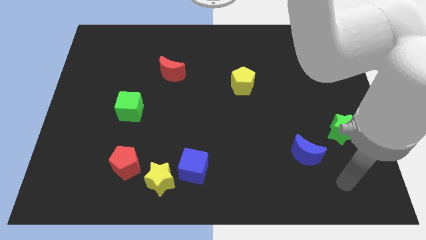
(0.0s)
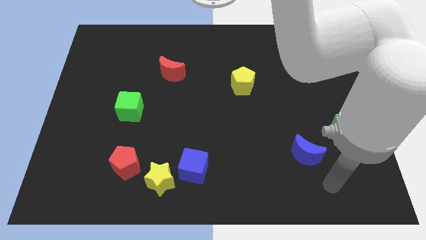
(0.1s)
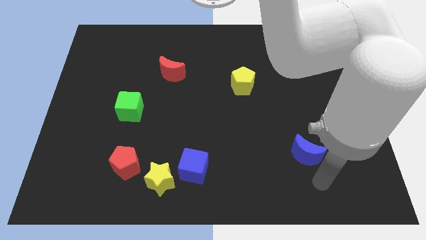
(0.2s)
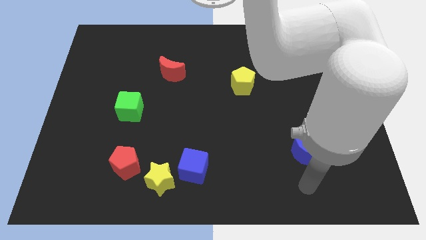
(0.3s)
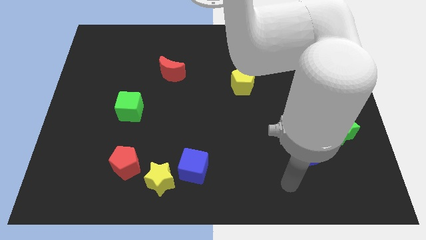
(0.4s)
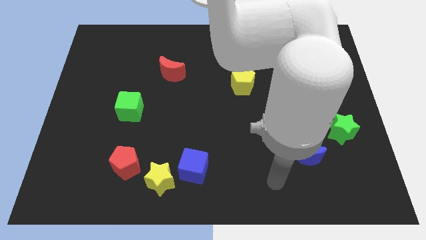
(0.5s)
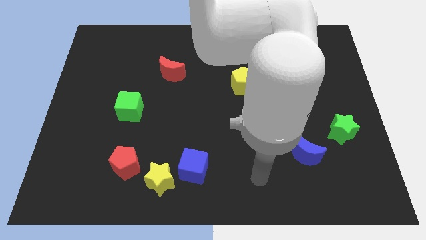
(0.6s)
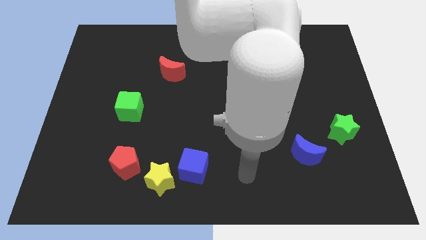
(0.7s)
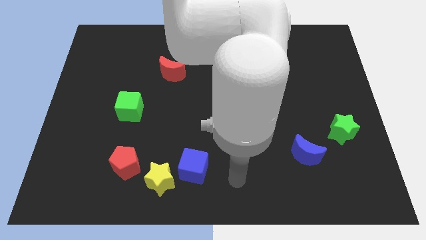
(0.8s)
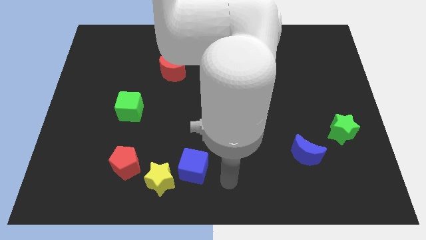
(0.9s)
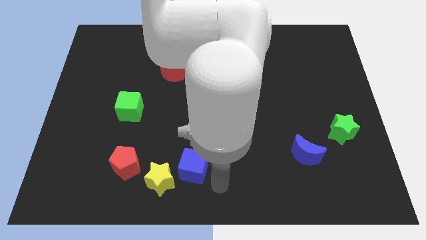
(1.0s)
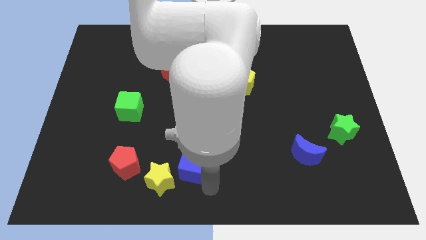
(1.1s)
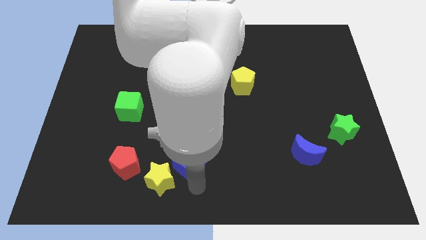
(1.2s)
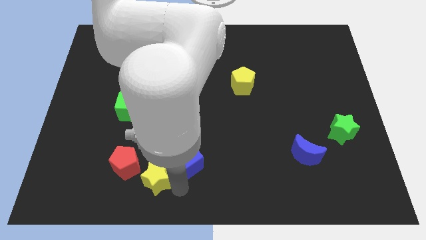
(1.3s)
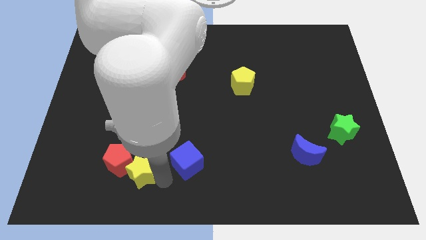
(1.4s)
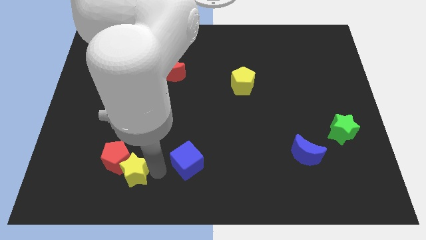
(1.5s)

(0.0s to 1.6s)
separate the blue cube from the yellow star

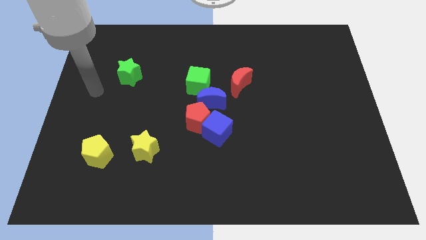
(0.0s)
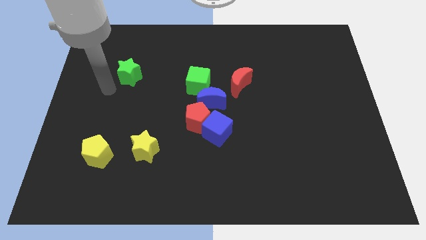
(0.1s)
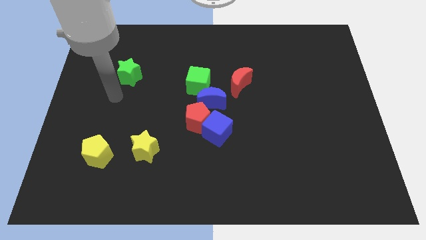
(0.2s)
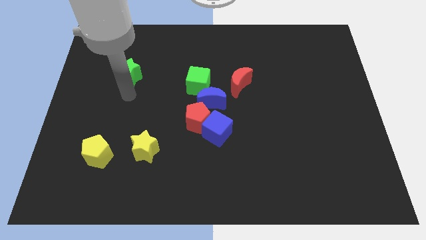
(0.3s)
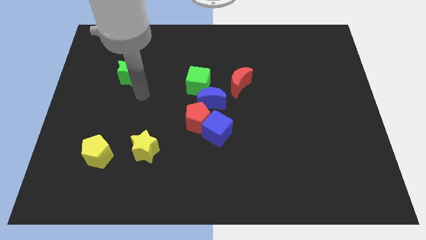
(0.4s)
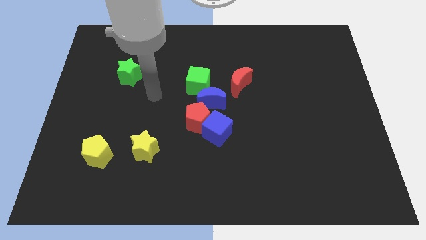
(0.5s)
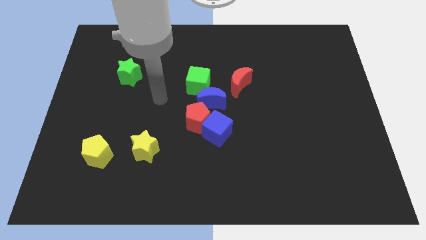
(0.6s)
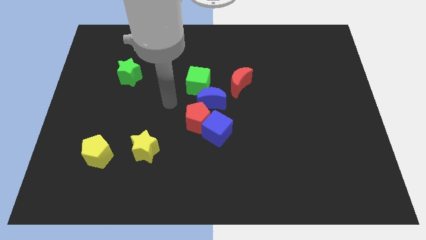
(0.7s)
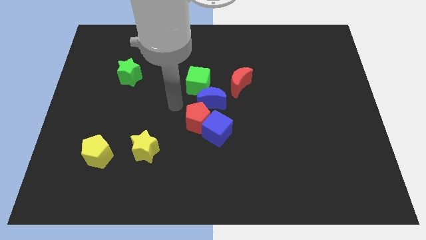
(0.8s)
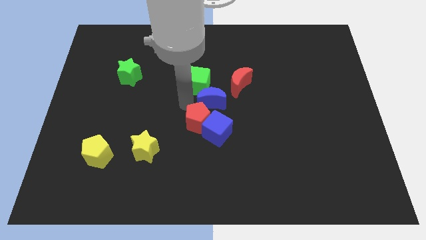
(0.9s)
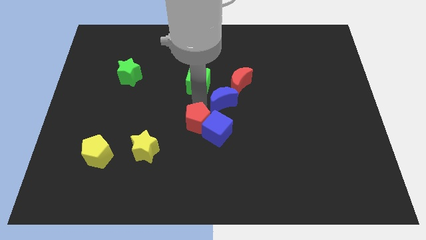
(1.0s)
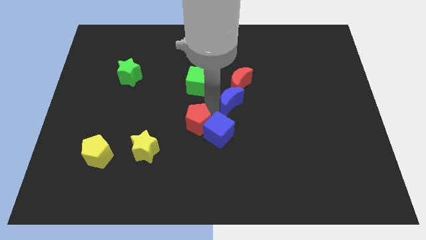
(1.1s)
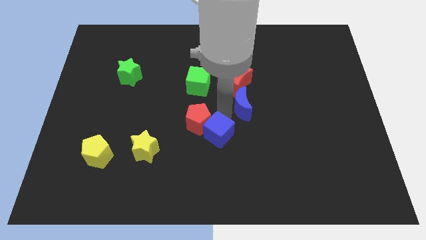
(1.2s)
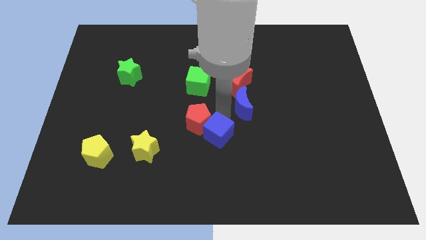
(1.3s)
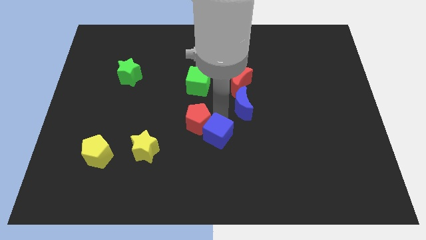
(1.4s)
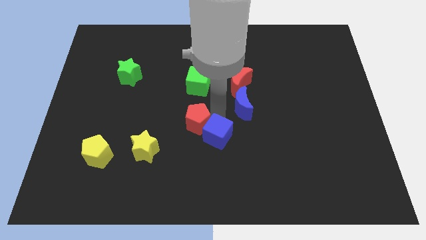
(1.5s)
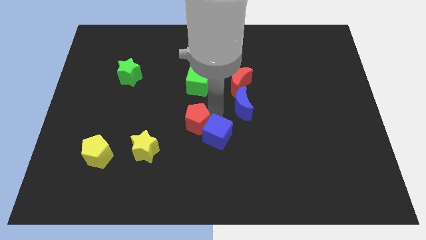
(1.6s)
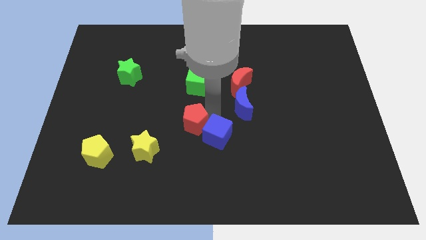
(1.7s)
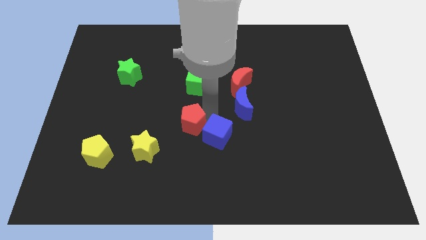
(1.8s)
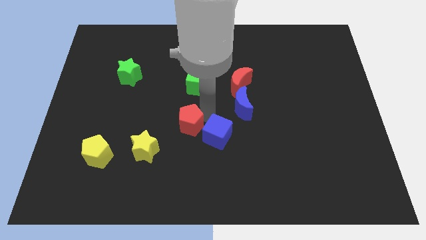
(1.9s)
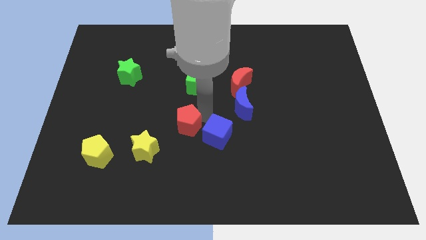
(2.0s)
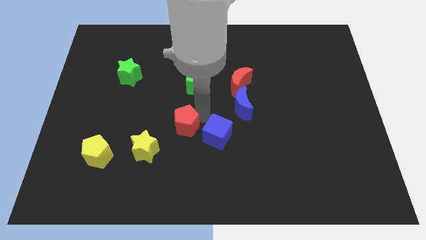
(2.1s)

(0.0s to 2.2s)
separate the red pentagon from the blue cube and blue moon

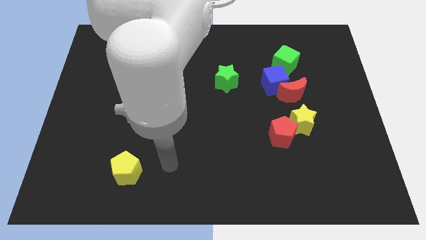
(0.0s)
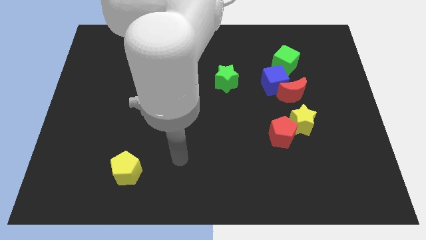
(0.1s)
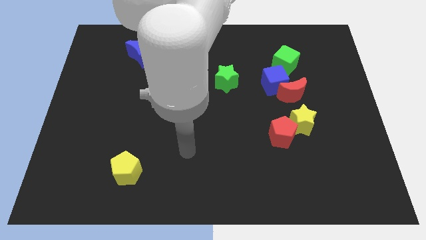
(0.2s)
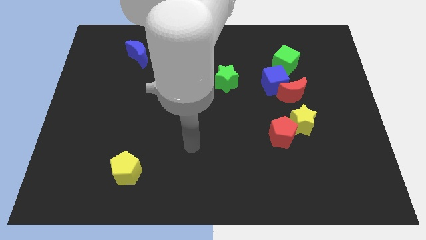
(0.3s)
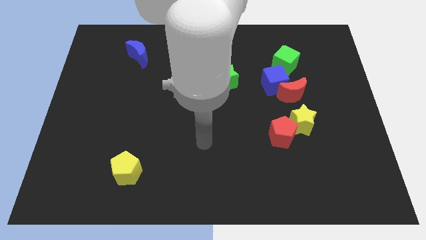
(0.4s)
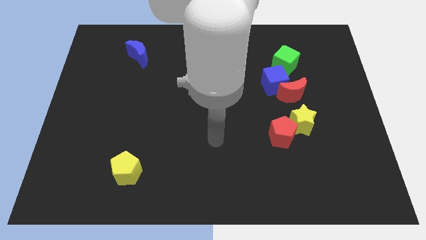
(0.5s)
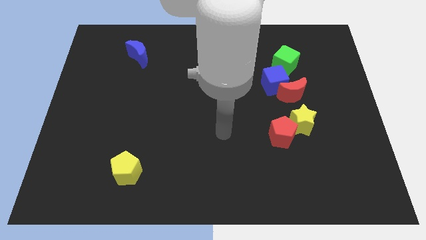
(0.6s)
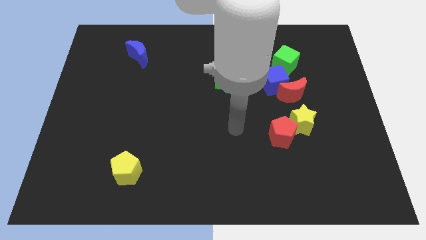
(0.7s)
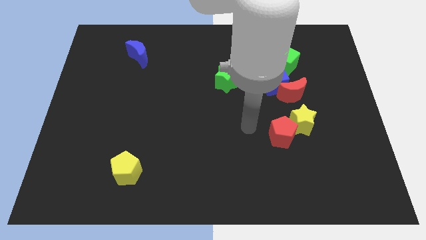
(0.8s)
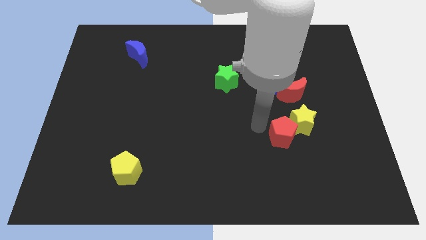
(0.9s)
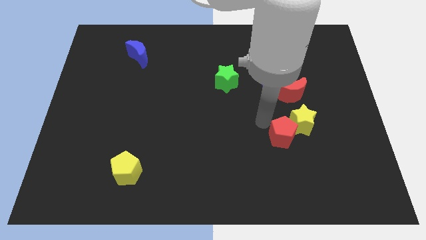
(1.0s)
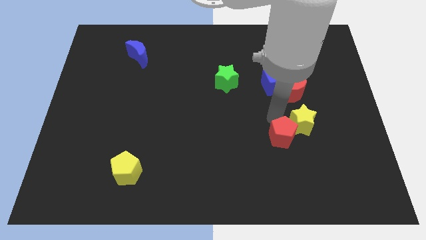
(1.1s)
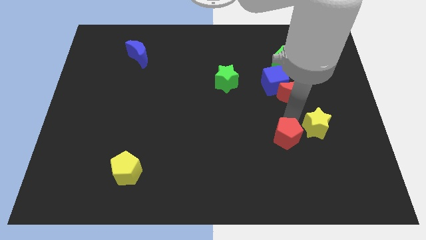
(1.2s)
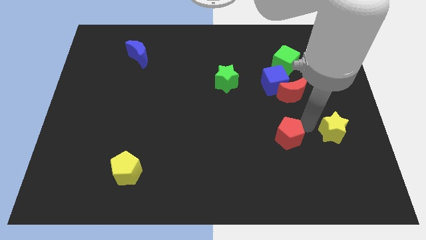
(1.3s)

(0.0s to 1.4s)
separate the red pentagon from the yellow star

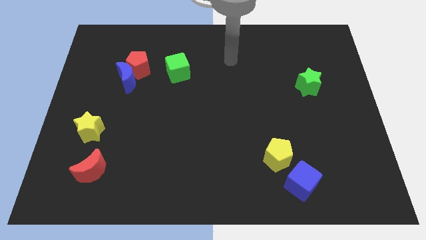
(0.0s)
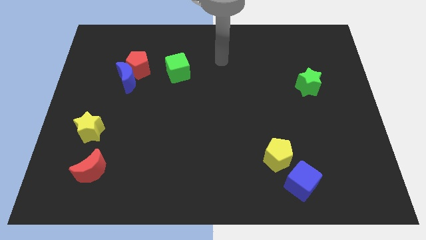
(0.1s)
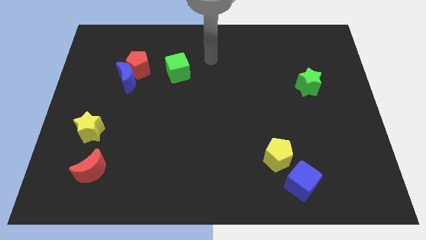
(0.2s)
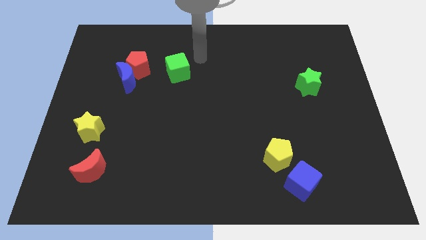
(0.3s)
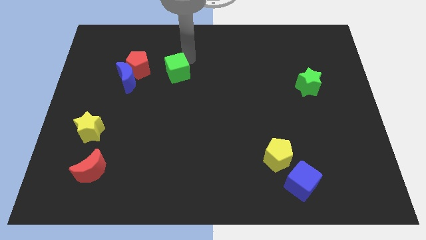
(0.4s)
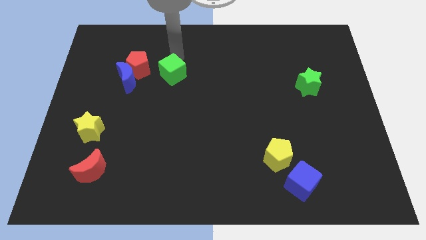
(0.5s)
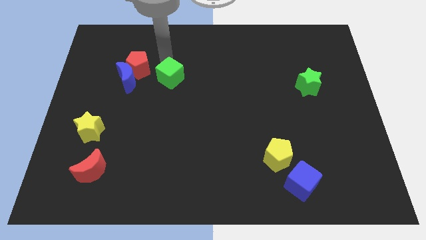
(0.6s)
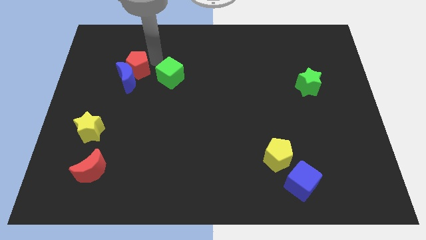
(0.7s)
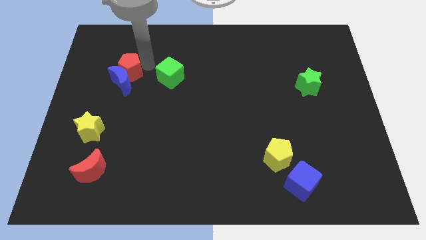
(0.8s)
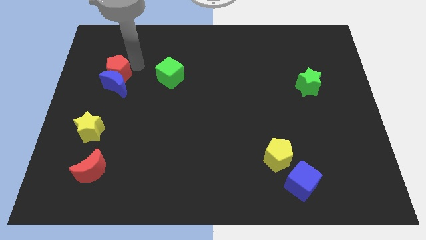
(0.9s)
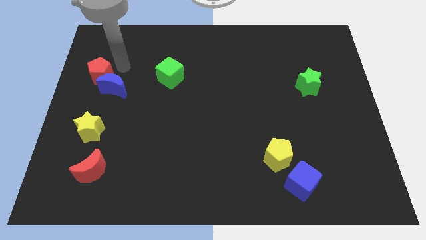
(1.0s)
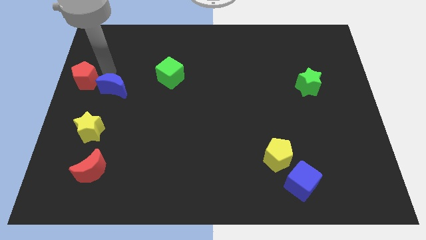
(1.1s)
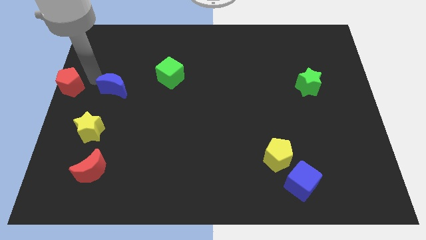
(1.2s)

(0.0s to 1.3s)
move the blue moon away from the red pentagon

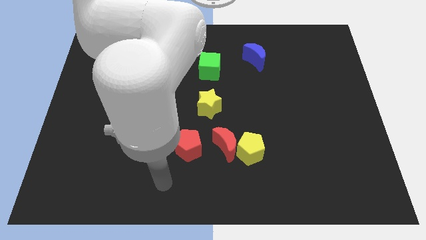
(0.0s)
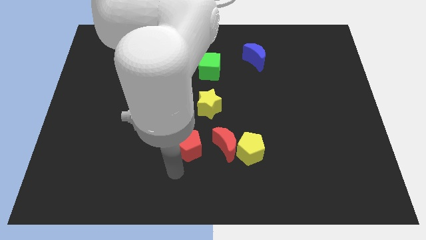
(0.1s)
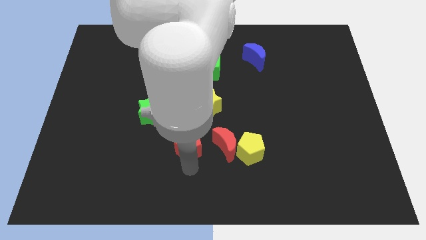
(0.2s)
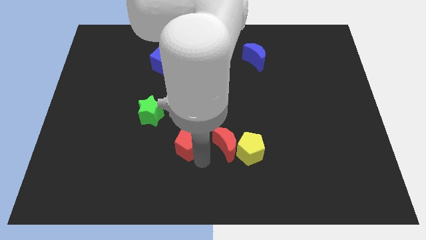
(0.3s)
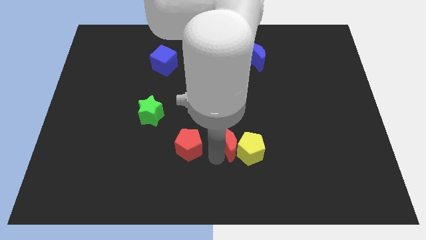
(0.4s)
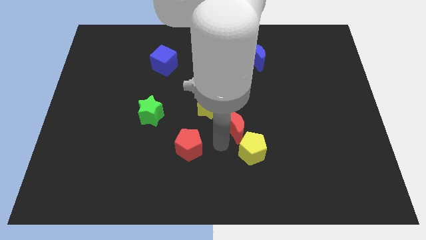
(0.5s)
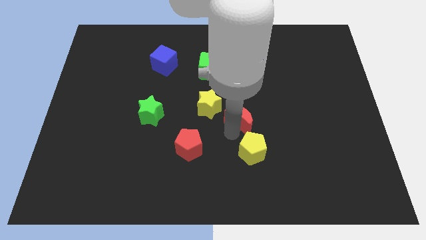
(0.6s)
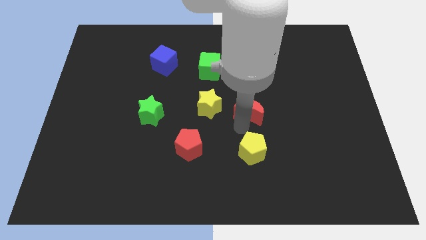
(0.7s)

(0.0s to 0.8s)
move the yellow pentagon away from the red moon

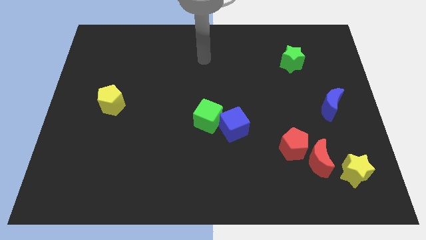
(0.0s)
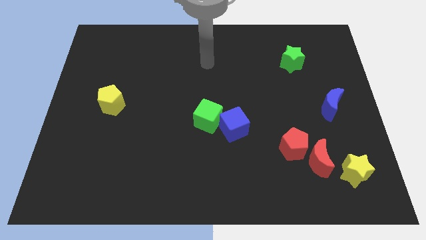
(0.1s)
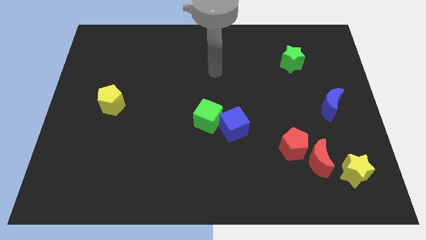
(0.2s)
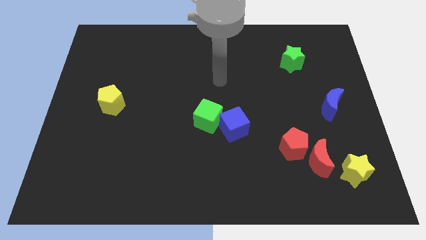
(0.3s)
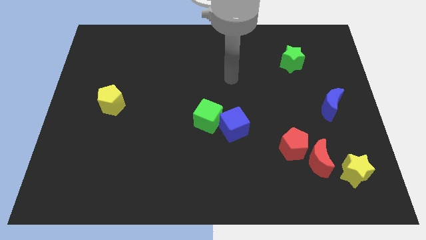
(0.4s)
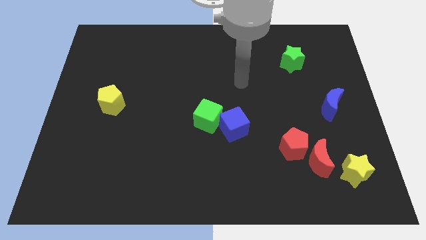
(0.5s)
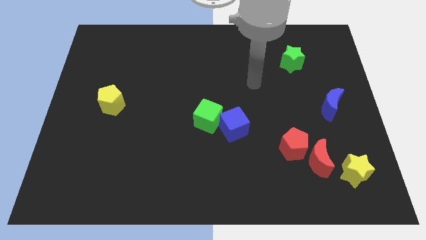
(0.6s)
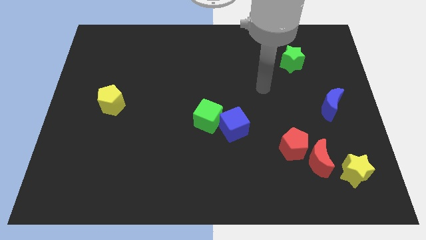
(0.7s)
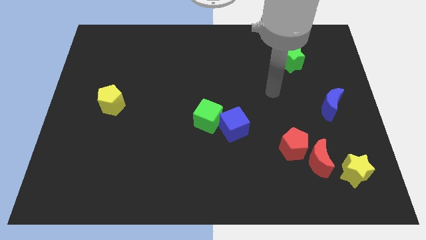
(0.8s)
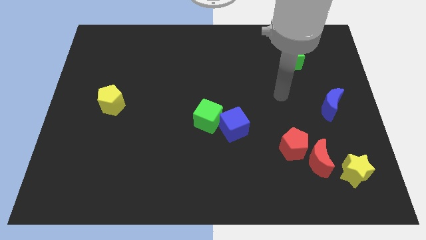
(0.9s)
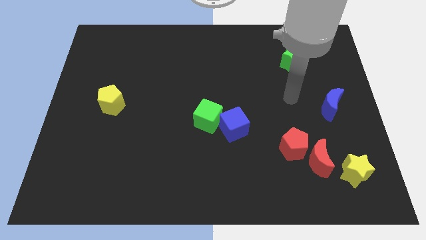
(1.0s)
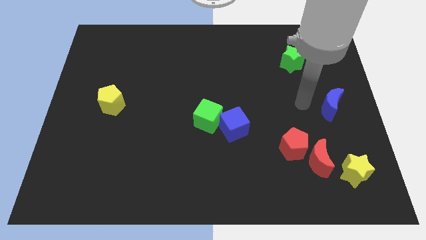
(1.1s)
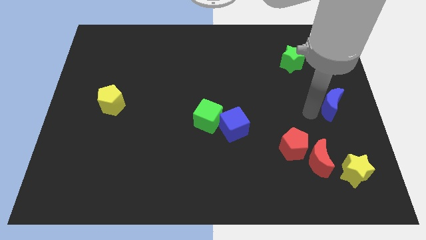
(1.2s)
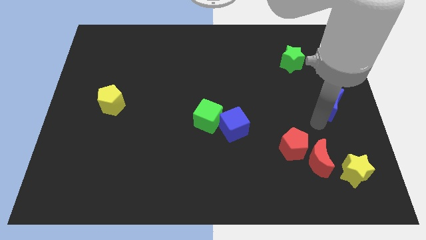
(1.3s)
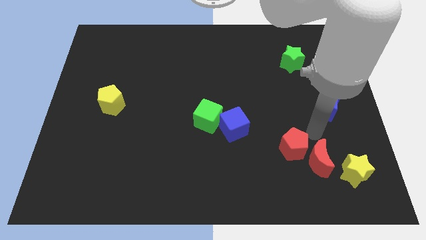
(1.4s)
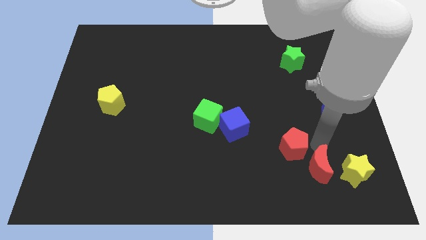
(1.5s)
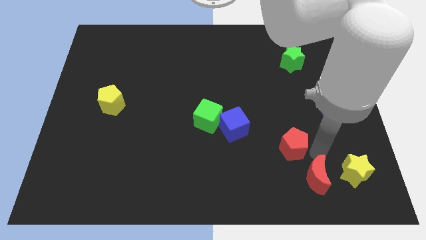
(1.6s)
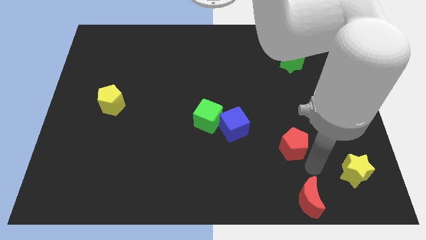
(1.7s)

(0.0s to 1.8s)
pull the red pentagon apart from the red moon

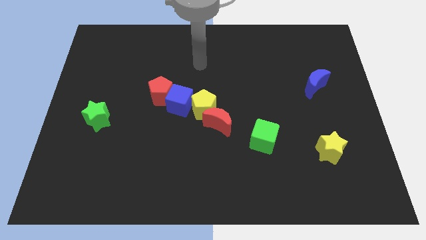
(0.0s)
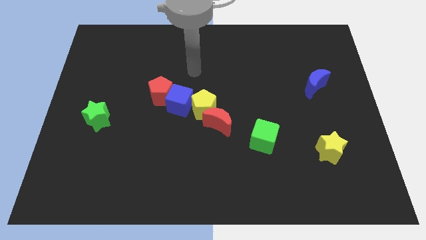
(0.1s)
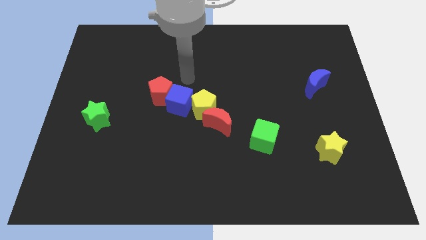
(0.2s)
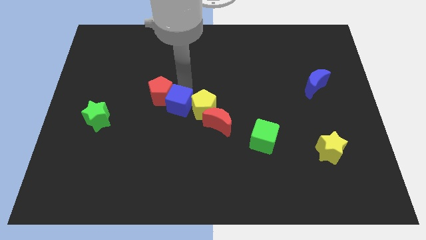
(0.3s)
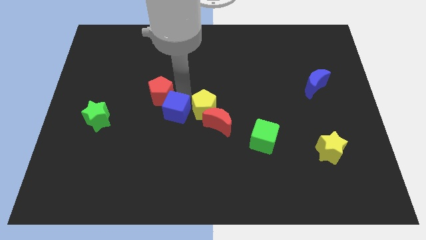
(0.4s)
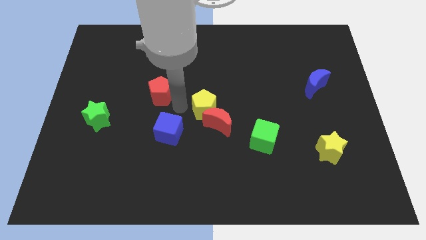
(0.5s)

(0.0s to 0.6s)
pull the red pentagon apart from the blue cube
